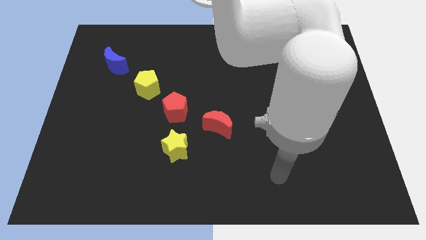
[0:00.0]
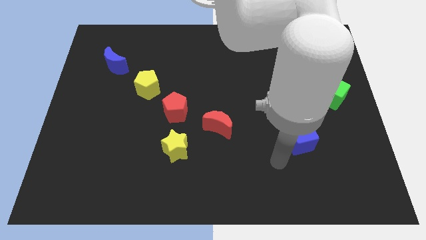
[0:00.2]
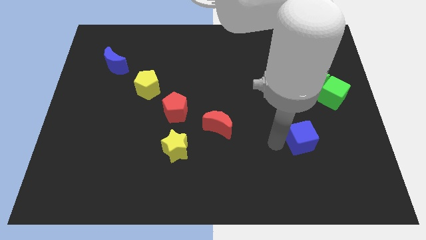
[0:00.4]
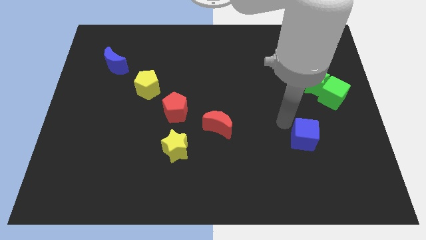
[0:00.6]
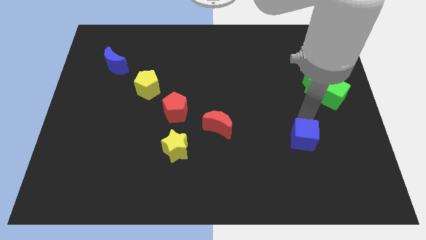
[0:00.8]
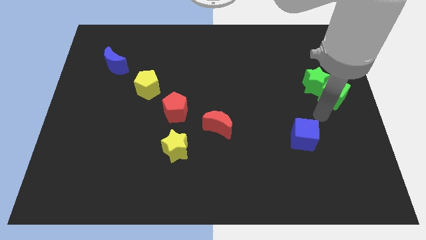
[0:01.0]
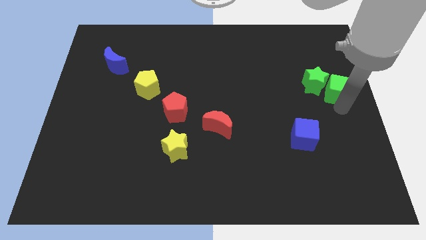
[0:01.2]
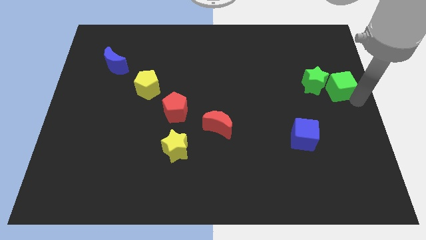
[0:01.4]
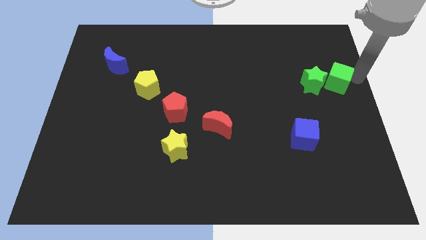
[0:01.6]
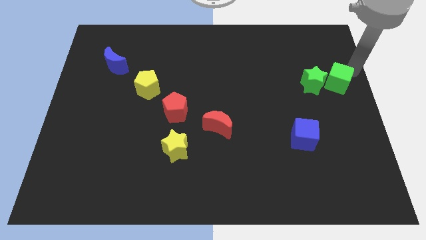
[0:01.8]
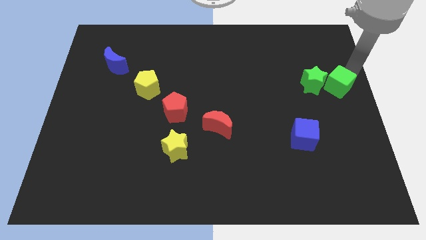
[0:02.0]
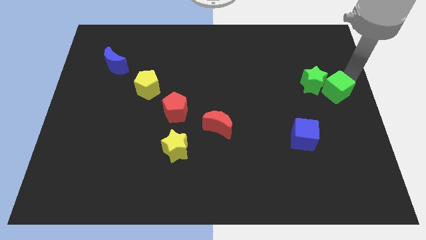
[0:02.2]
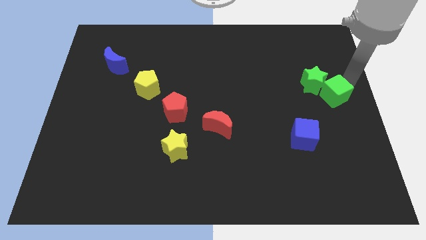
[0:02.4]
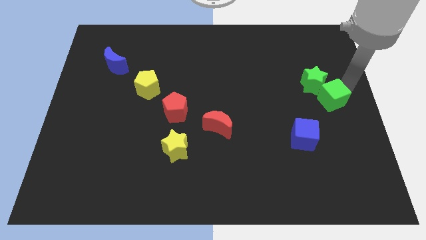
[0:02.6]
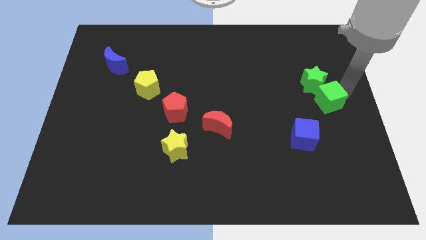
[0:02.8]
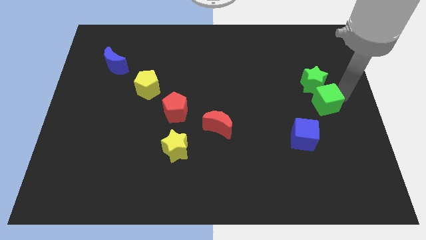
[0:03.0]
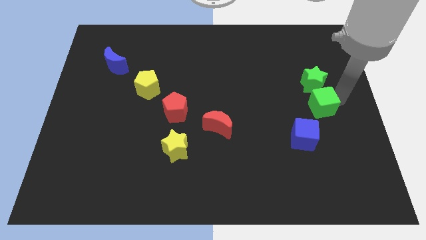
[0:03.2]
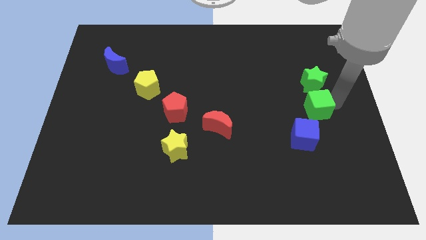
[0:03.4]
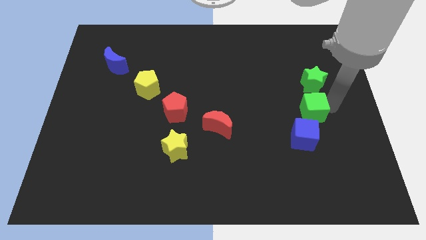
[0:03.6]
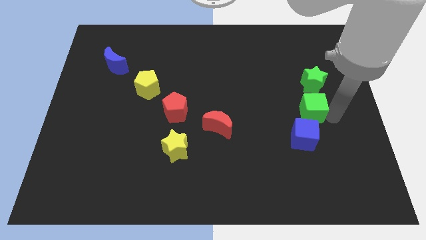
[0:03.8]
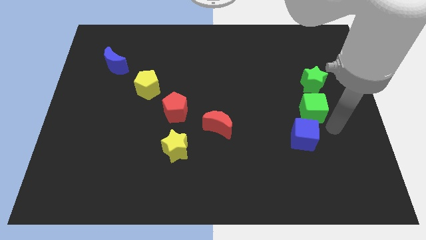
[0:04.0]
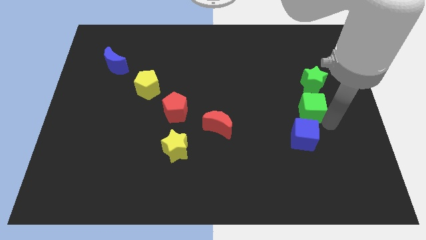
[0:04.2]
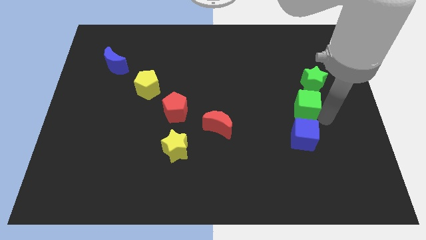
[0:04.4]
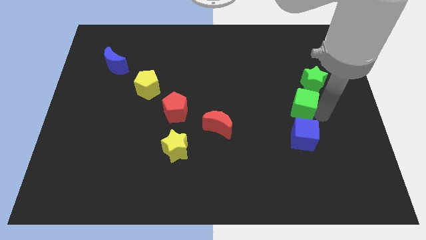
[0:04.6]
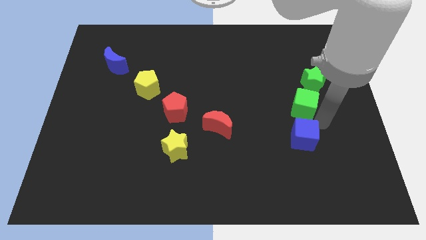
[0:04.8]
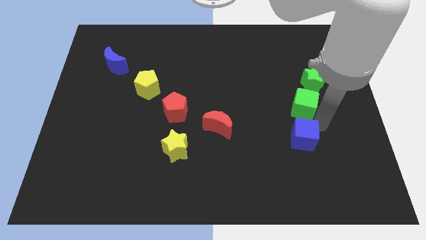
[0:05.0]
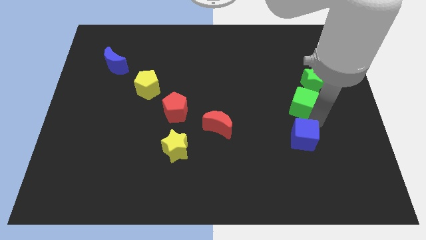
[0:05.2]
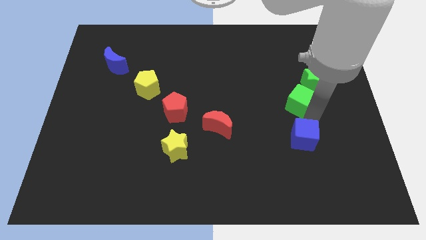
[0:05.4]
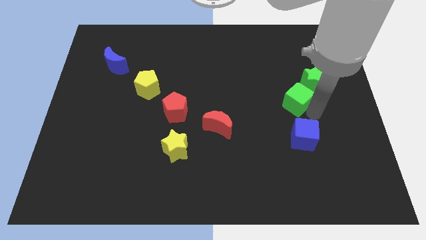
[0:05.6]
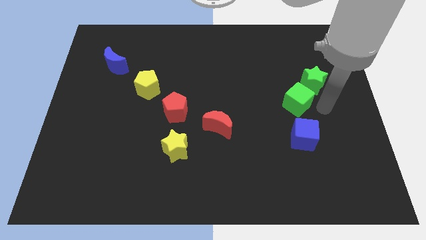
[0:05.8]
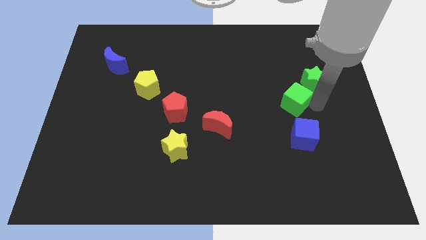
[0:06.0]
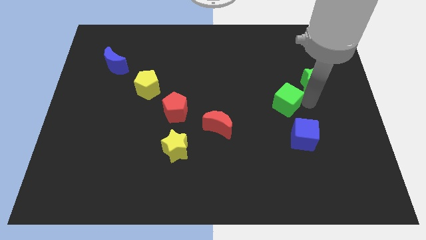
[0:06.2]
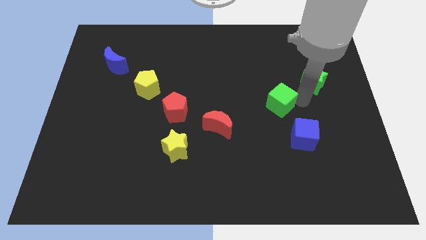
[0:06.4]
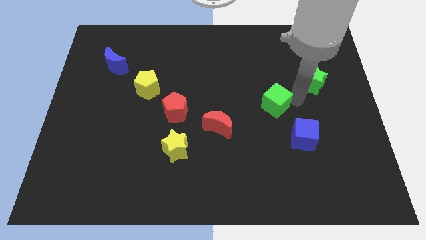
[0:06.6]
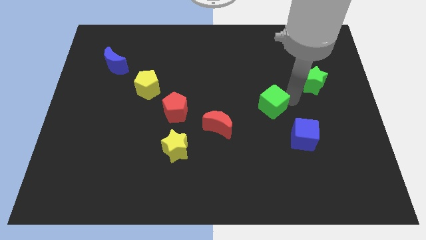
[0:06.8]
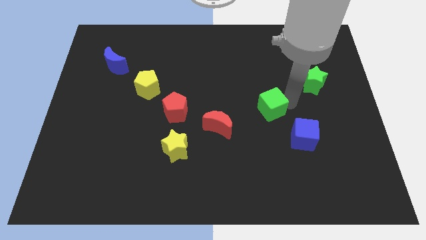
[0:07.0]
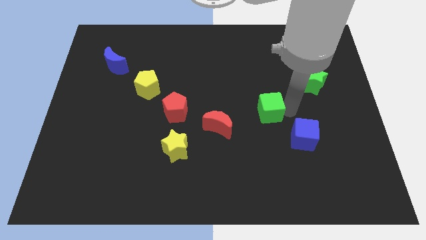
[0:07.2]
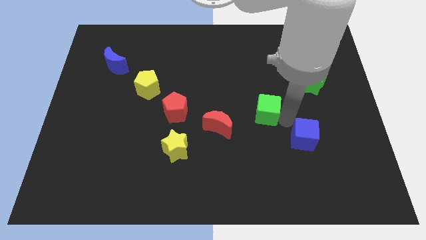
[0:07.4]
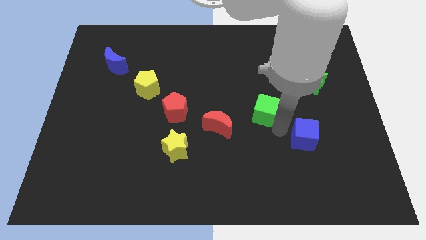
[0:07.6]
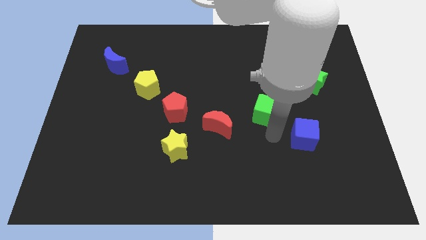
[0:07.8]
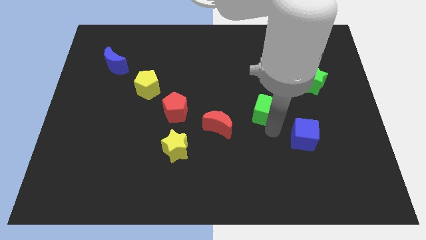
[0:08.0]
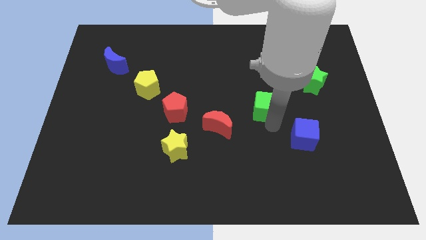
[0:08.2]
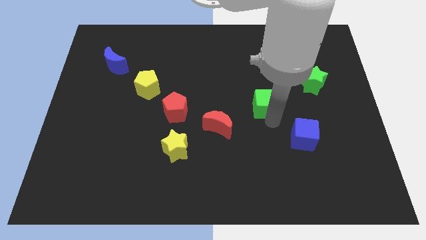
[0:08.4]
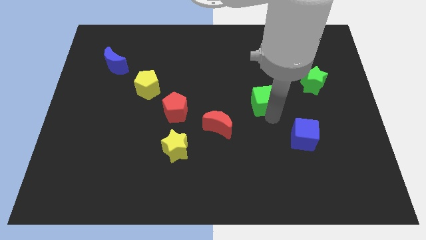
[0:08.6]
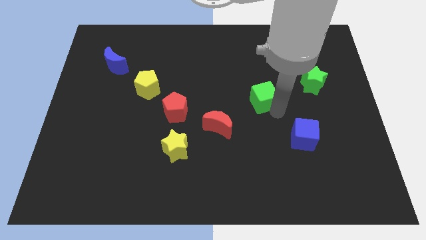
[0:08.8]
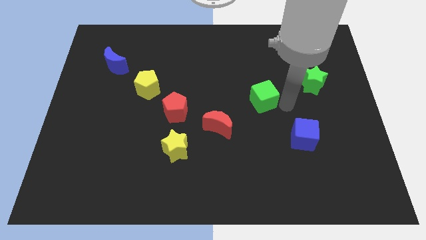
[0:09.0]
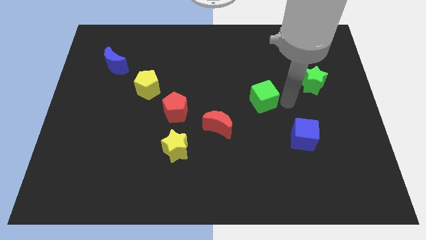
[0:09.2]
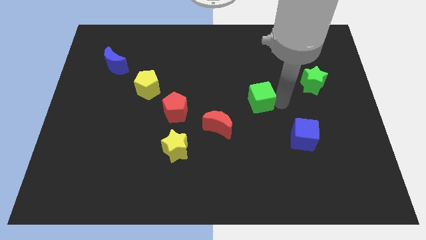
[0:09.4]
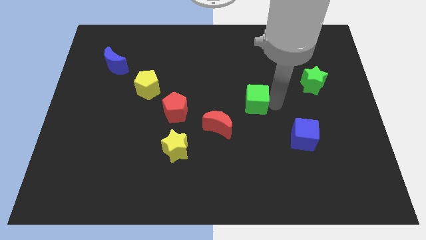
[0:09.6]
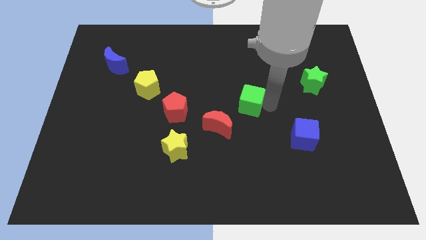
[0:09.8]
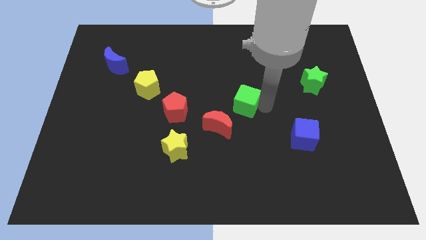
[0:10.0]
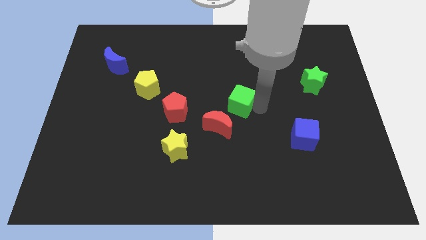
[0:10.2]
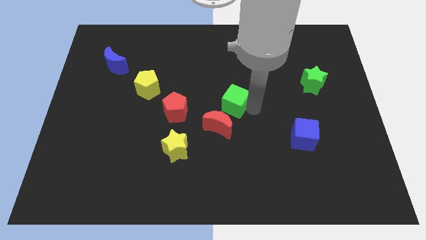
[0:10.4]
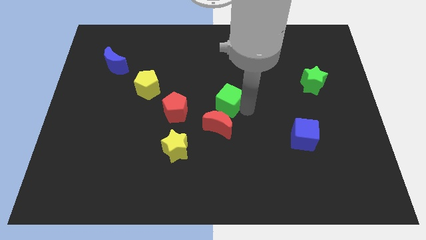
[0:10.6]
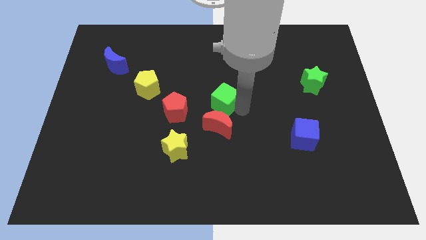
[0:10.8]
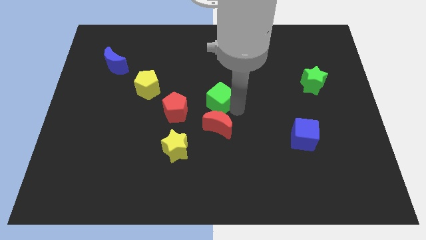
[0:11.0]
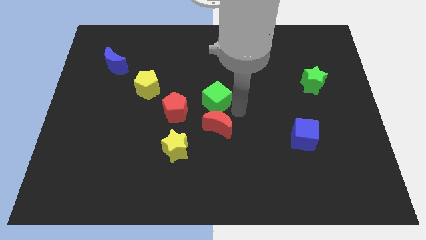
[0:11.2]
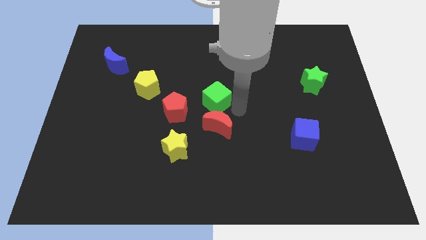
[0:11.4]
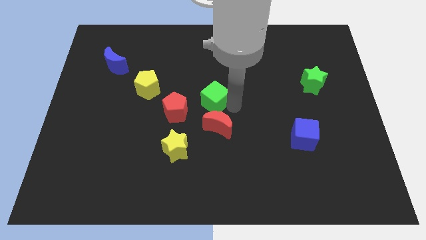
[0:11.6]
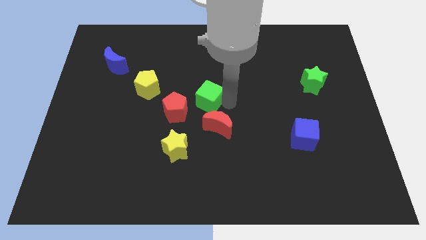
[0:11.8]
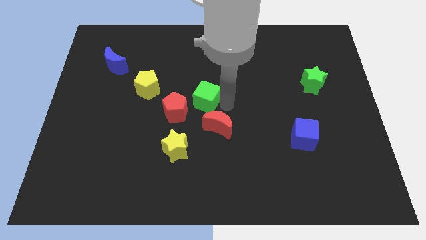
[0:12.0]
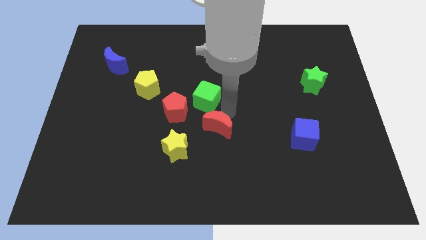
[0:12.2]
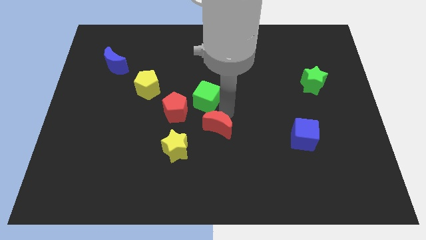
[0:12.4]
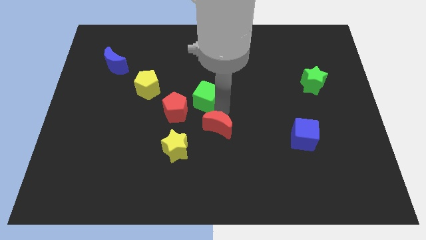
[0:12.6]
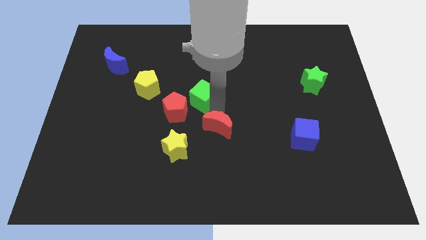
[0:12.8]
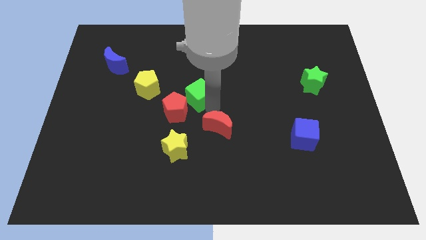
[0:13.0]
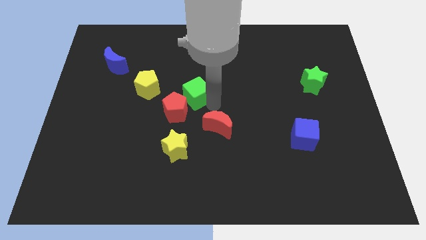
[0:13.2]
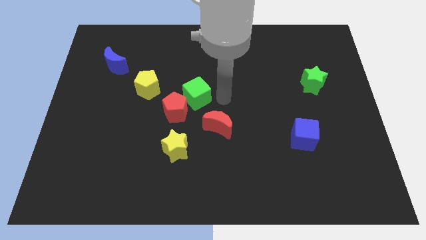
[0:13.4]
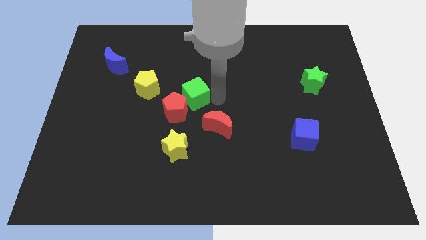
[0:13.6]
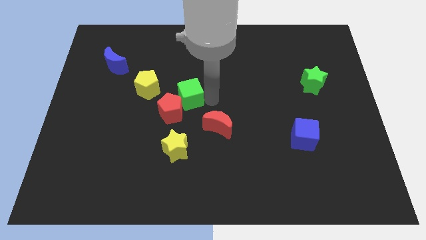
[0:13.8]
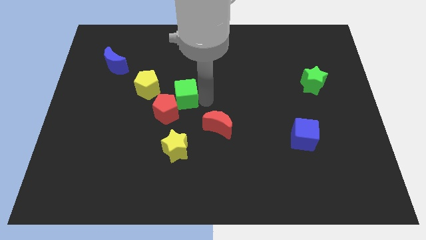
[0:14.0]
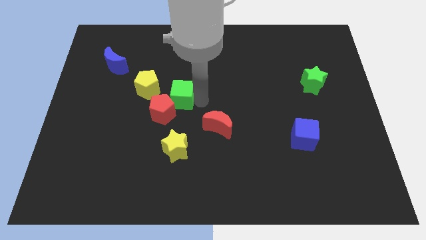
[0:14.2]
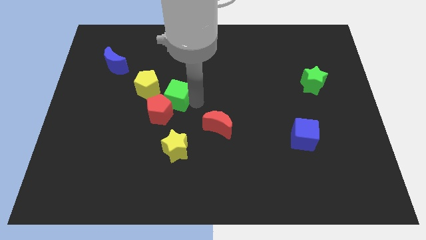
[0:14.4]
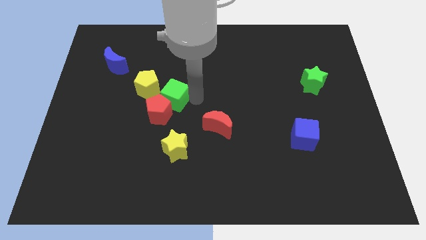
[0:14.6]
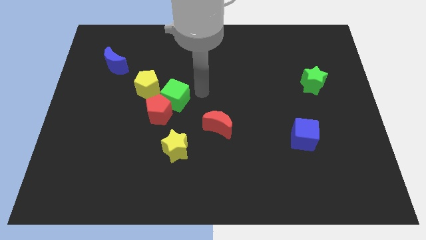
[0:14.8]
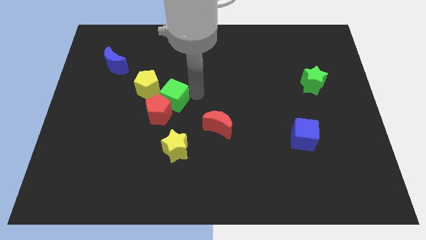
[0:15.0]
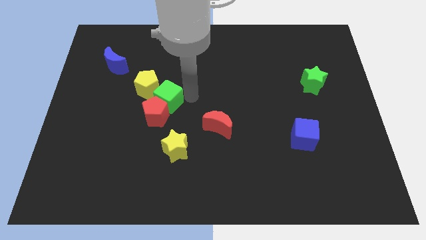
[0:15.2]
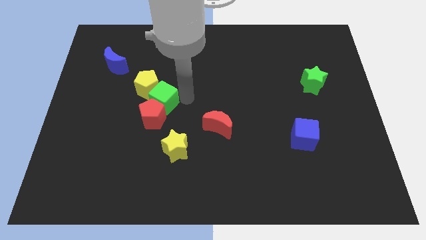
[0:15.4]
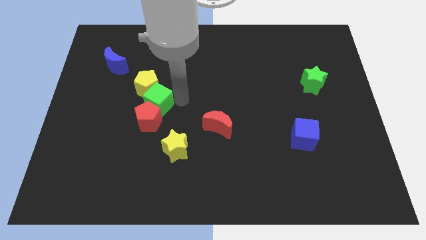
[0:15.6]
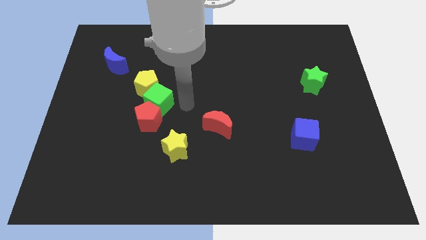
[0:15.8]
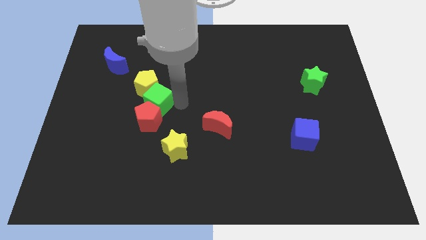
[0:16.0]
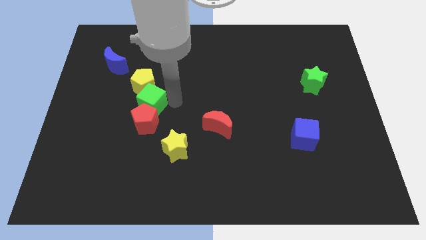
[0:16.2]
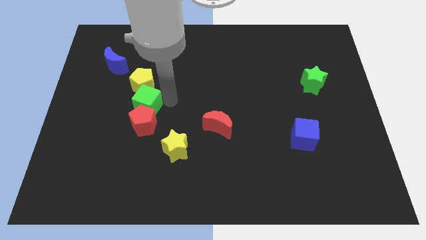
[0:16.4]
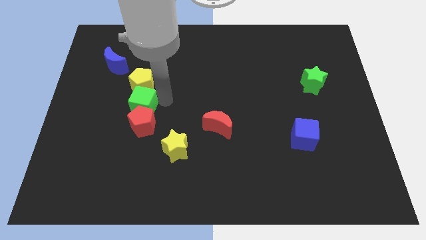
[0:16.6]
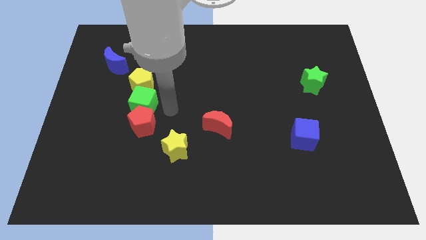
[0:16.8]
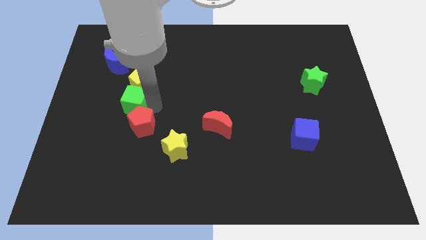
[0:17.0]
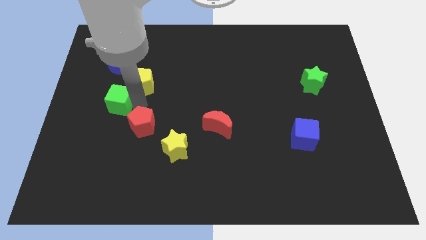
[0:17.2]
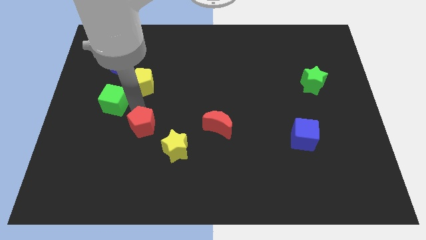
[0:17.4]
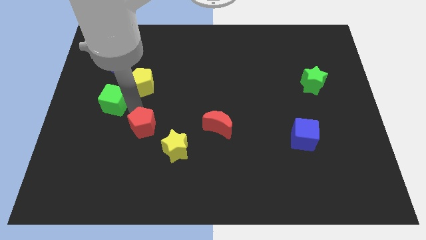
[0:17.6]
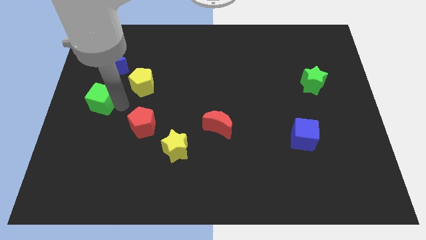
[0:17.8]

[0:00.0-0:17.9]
move the green cube to the left side of the board
